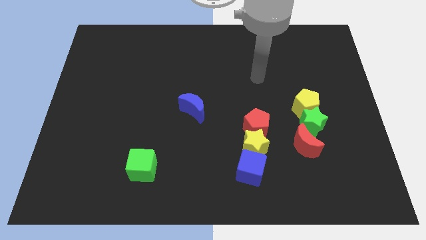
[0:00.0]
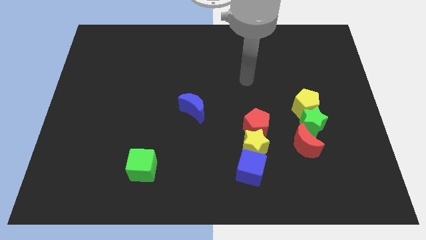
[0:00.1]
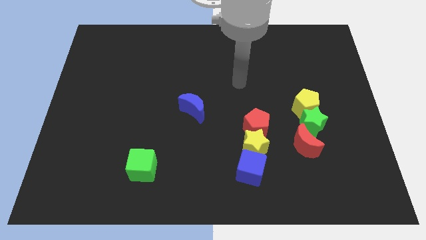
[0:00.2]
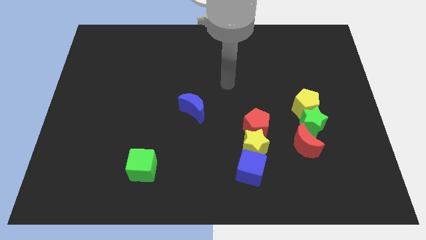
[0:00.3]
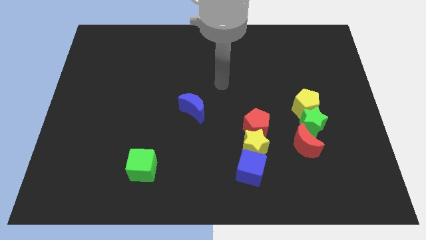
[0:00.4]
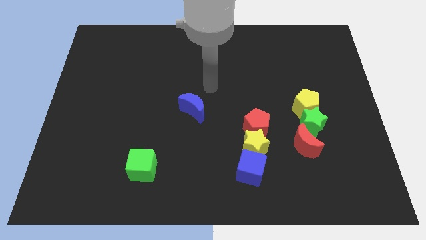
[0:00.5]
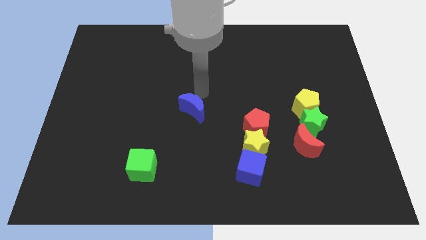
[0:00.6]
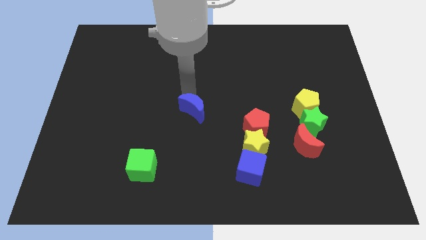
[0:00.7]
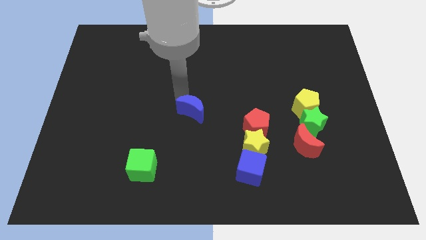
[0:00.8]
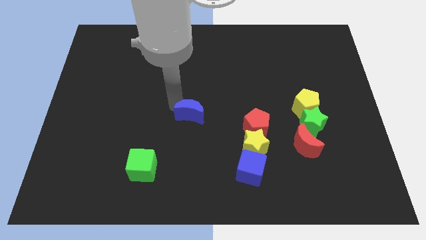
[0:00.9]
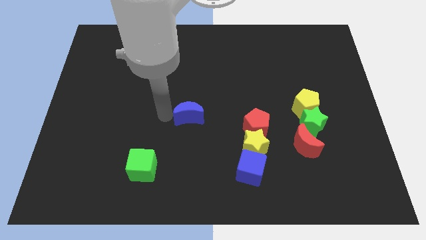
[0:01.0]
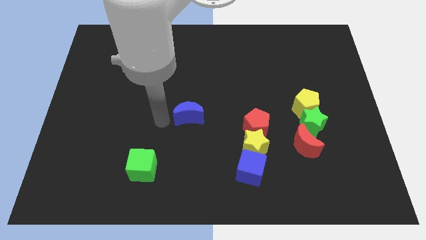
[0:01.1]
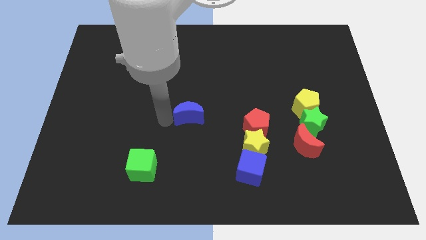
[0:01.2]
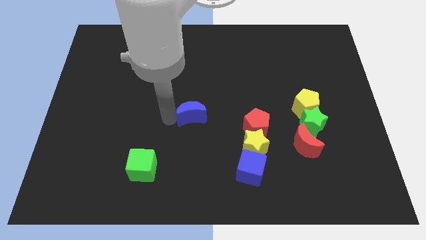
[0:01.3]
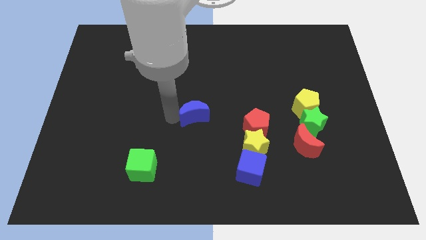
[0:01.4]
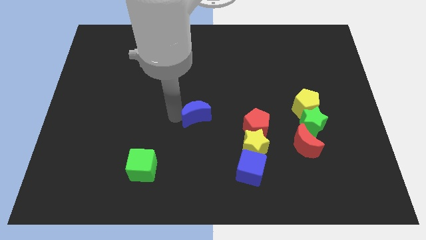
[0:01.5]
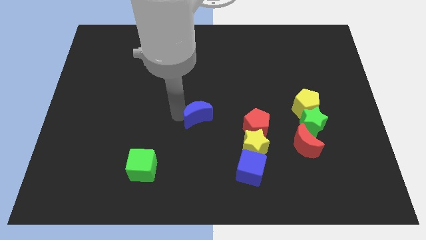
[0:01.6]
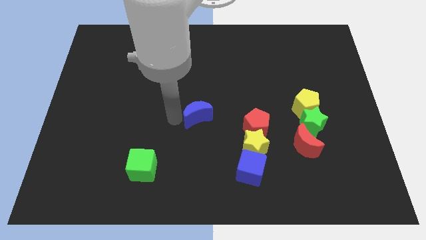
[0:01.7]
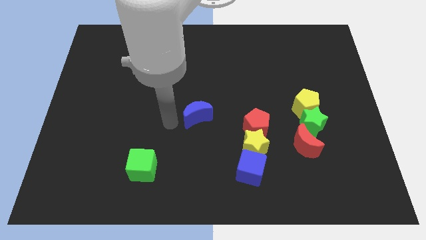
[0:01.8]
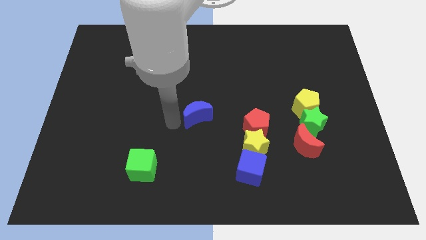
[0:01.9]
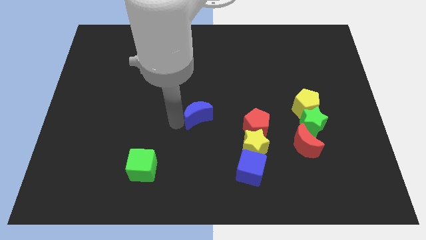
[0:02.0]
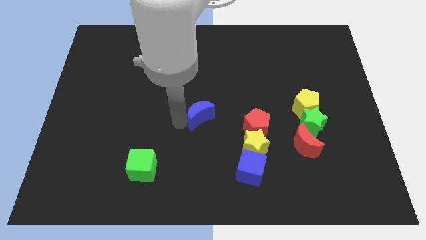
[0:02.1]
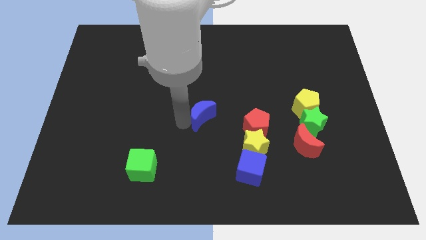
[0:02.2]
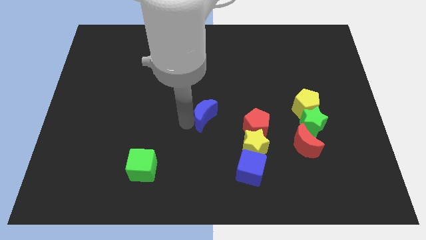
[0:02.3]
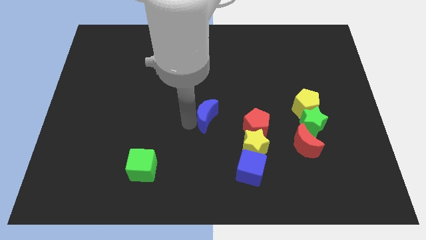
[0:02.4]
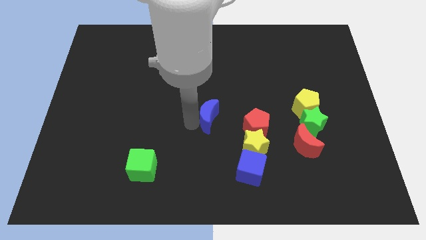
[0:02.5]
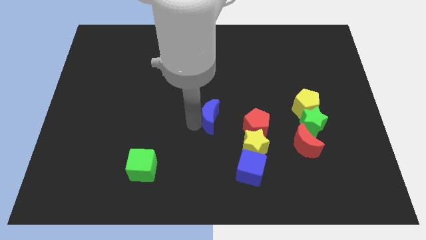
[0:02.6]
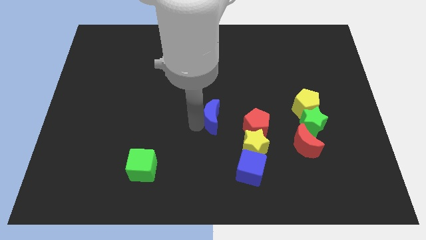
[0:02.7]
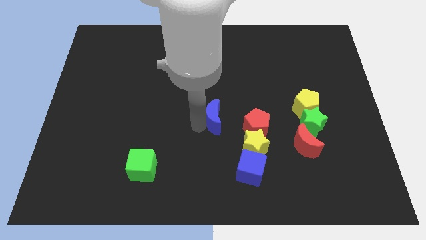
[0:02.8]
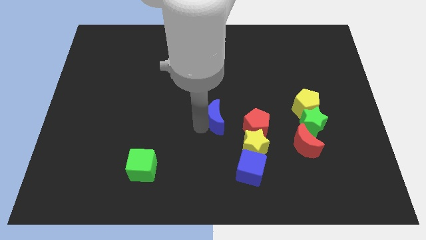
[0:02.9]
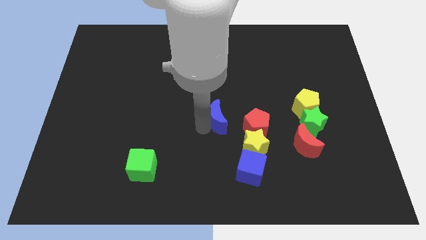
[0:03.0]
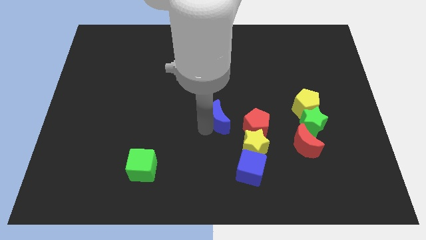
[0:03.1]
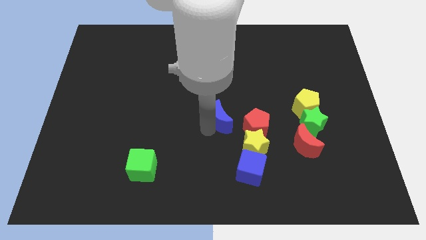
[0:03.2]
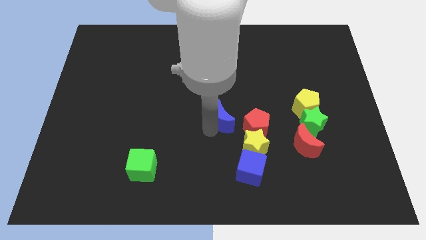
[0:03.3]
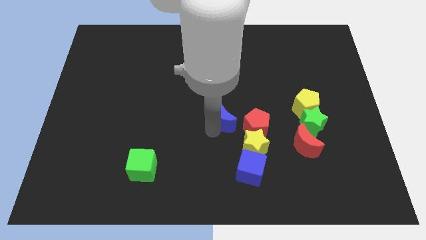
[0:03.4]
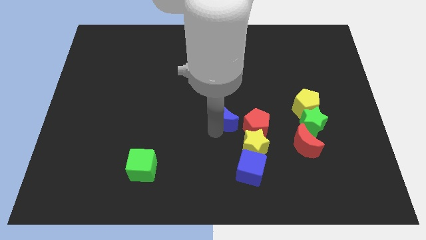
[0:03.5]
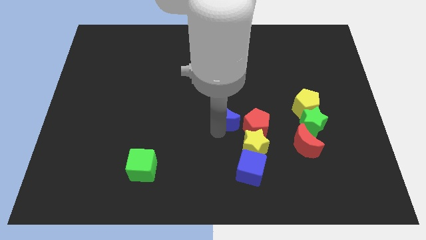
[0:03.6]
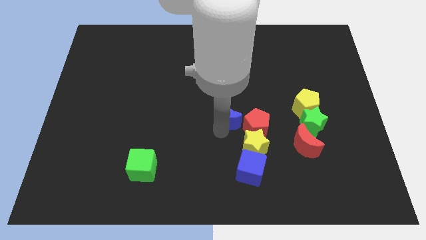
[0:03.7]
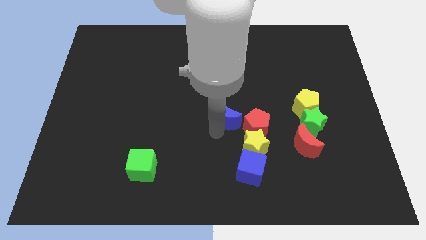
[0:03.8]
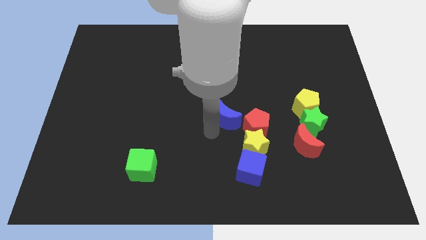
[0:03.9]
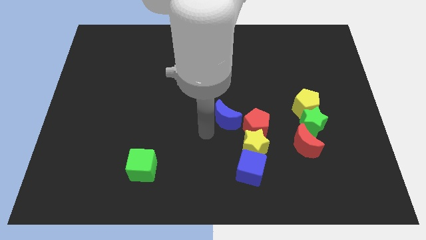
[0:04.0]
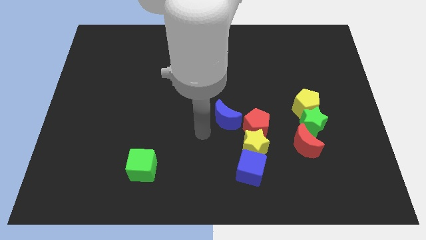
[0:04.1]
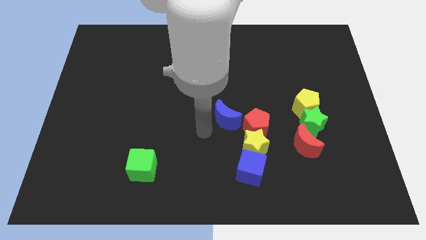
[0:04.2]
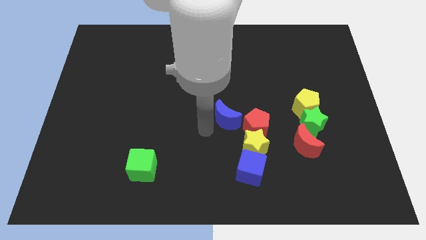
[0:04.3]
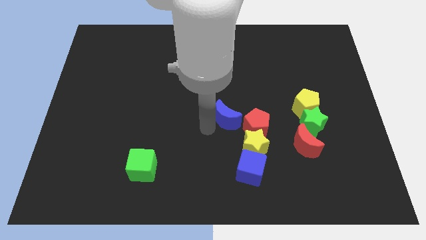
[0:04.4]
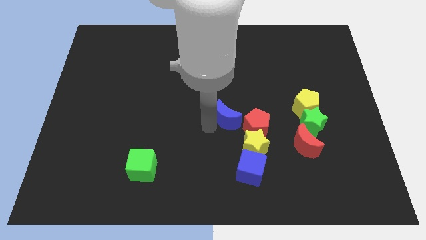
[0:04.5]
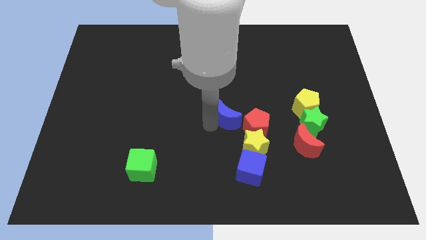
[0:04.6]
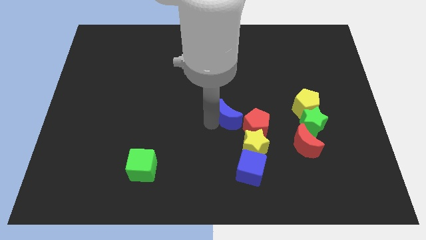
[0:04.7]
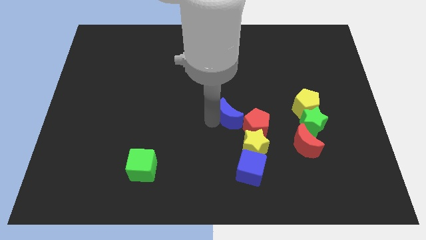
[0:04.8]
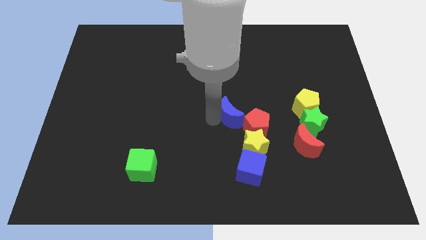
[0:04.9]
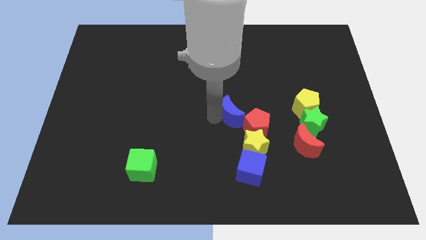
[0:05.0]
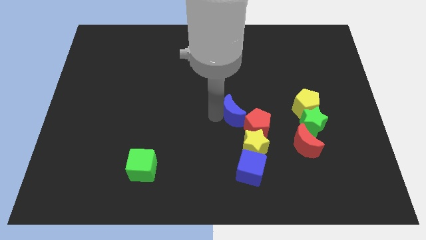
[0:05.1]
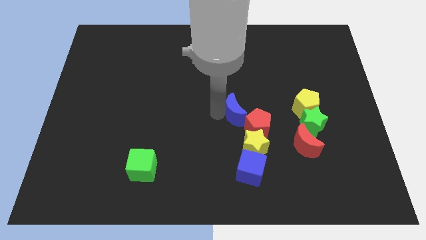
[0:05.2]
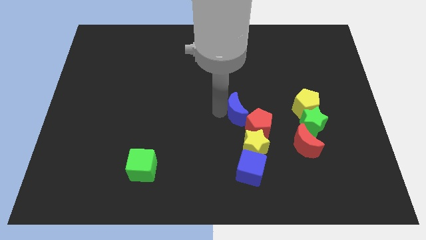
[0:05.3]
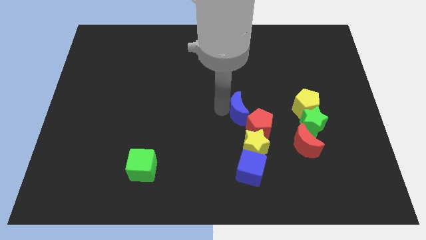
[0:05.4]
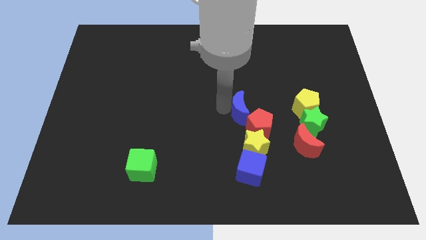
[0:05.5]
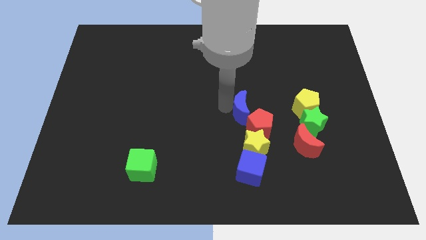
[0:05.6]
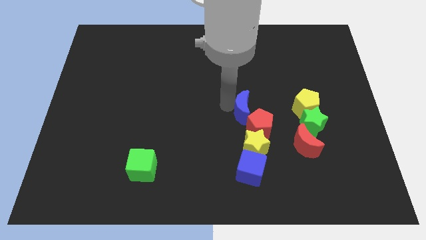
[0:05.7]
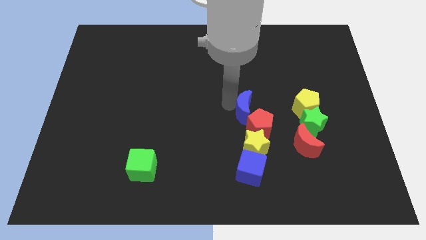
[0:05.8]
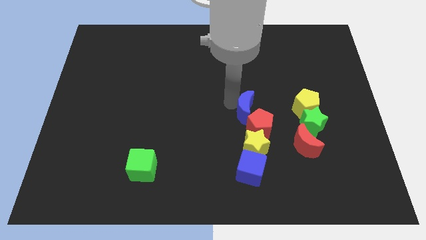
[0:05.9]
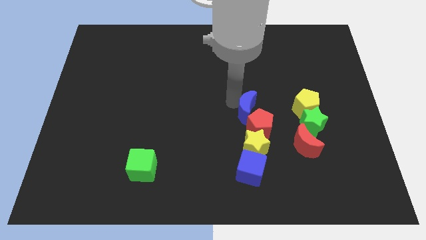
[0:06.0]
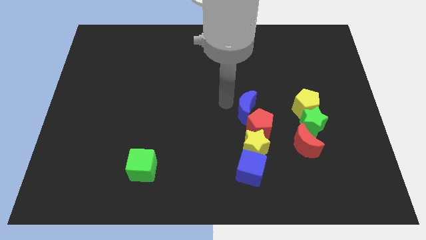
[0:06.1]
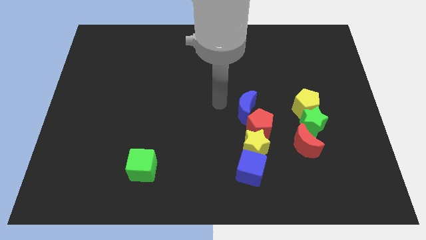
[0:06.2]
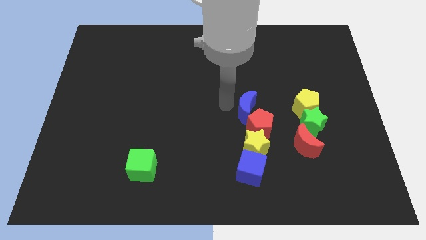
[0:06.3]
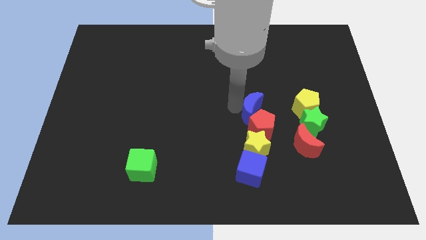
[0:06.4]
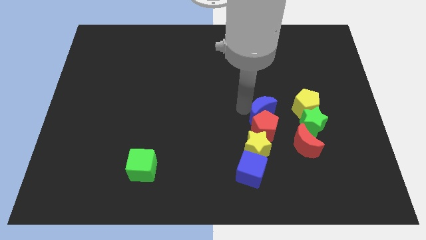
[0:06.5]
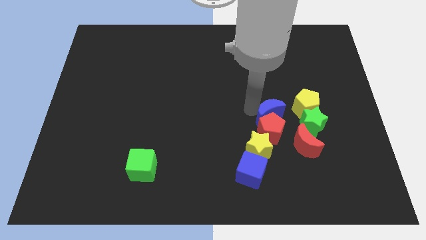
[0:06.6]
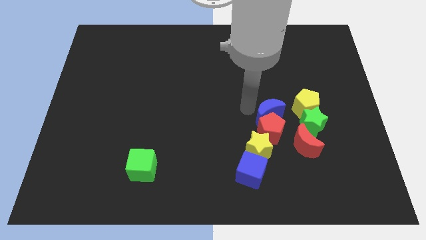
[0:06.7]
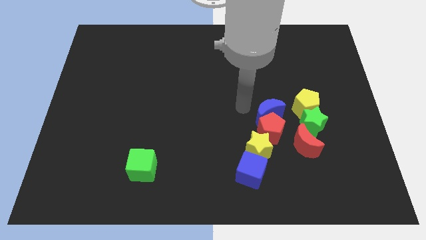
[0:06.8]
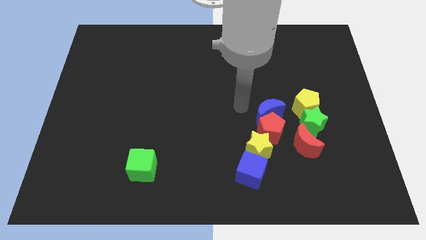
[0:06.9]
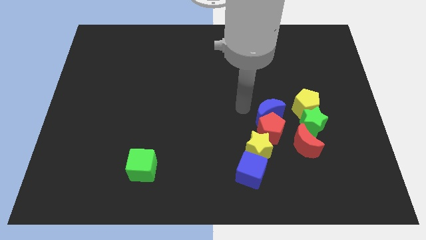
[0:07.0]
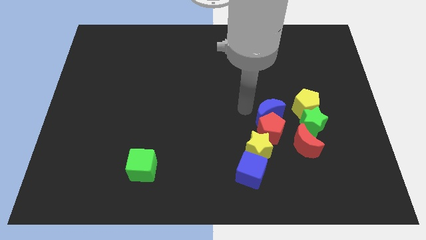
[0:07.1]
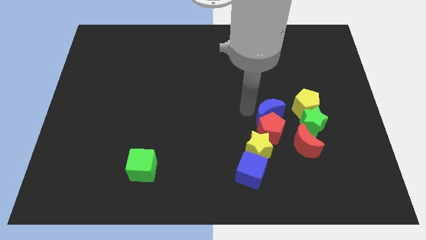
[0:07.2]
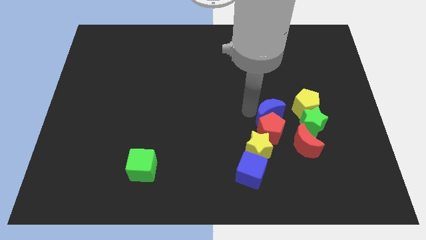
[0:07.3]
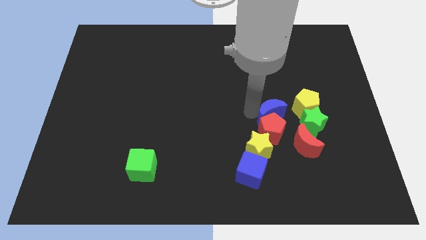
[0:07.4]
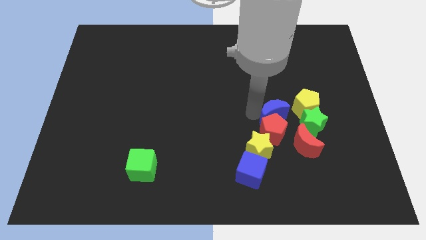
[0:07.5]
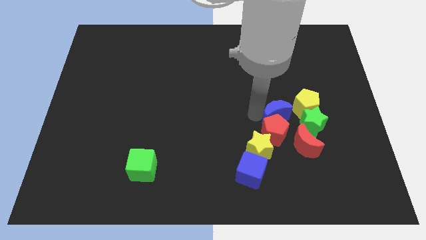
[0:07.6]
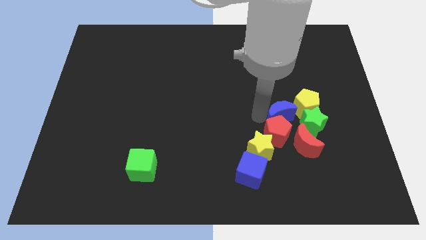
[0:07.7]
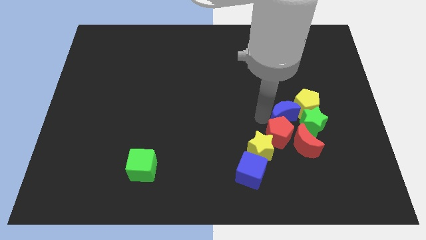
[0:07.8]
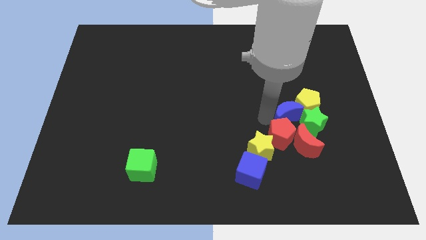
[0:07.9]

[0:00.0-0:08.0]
put the blue moon next to the green star
